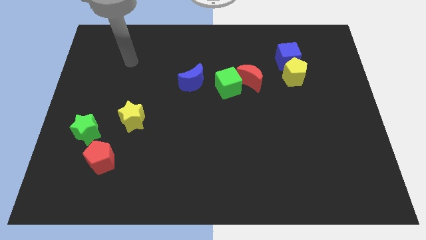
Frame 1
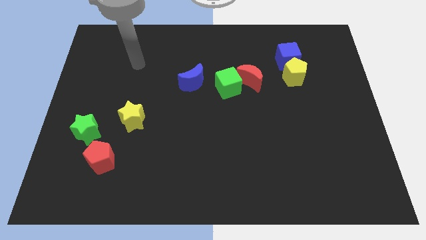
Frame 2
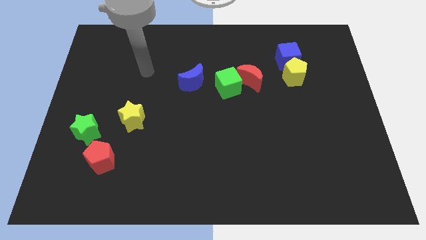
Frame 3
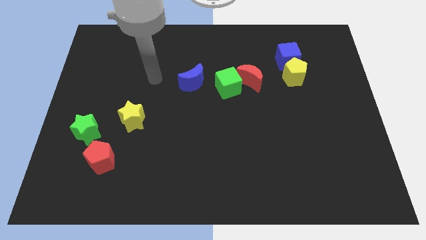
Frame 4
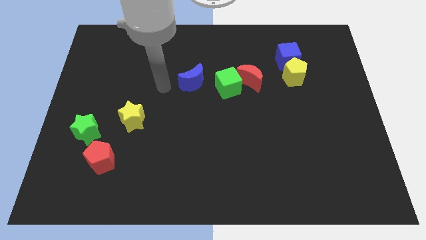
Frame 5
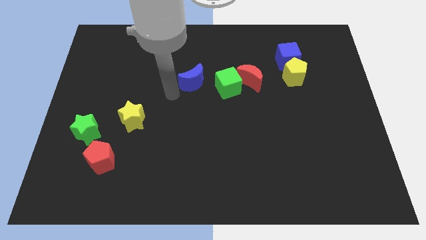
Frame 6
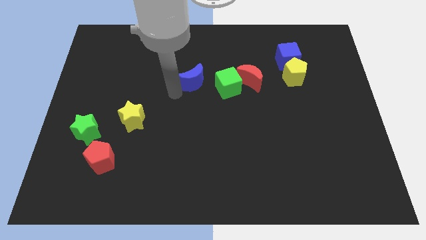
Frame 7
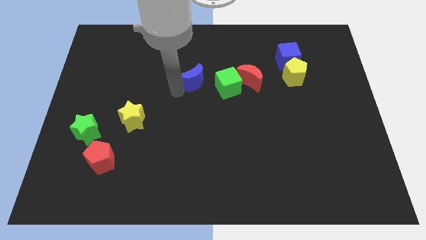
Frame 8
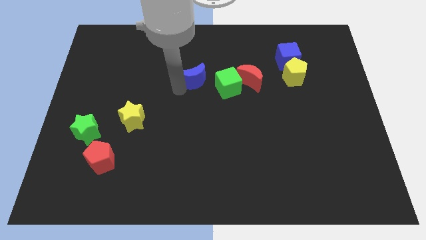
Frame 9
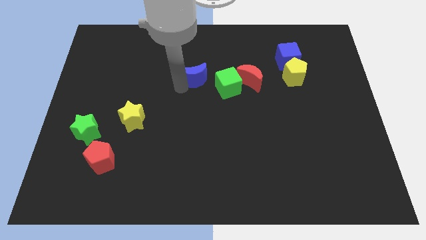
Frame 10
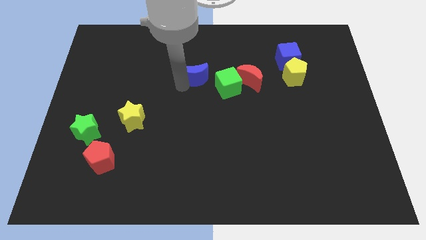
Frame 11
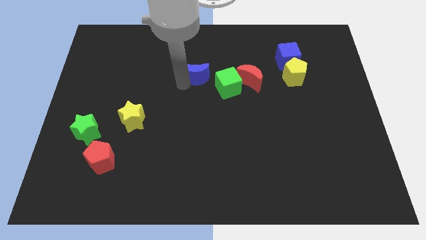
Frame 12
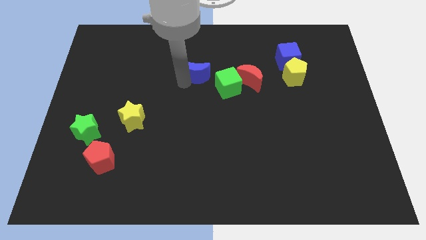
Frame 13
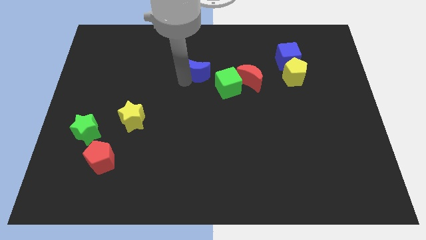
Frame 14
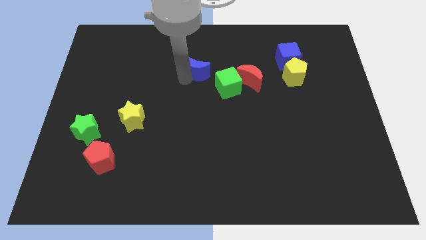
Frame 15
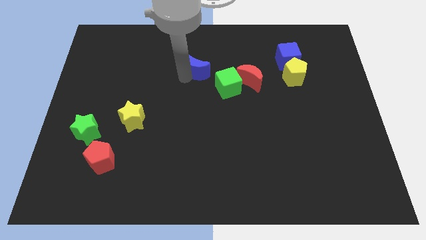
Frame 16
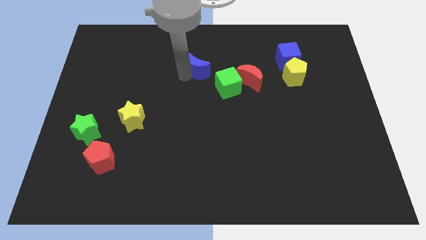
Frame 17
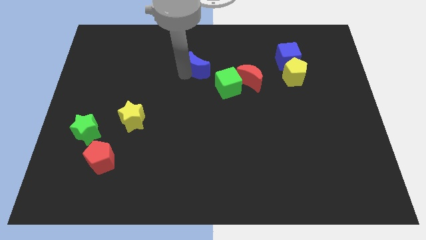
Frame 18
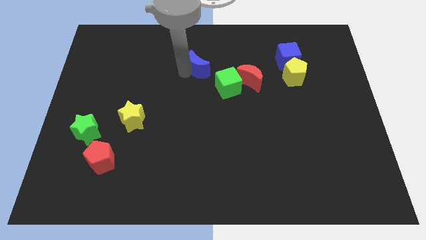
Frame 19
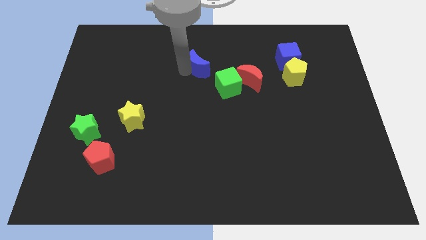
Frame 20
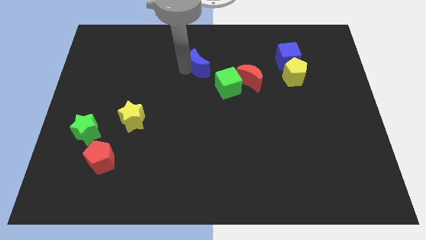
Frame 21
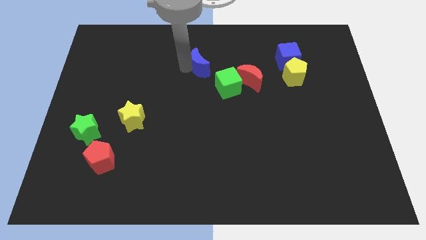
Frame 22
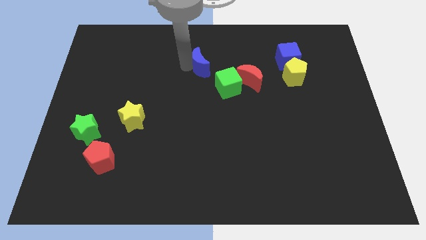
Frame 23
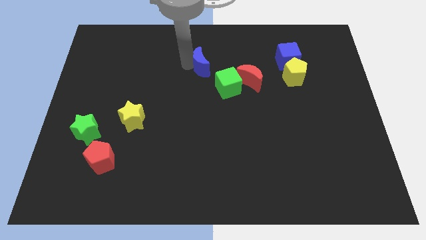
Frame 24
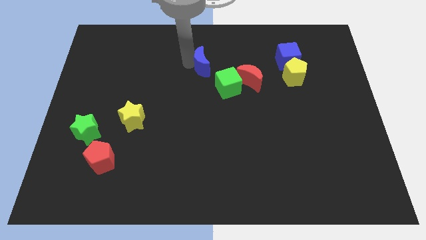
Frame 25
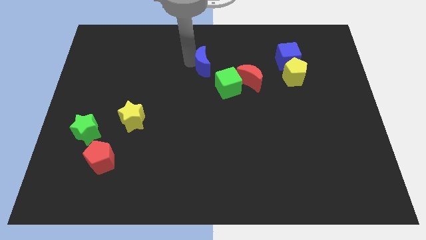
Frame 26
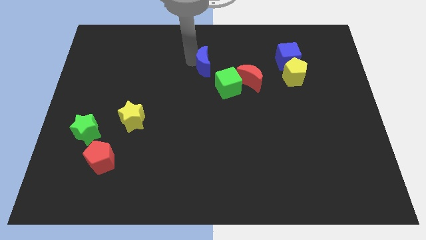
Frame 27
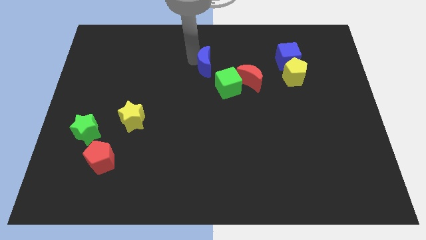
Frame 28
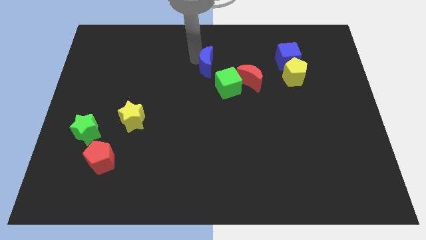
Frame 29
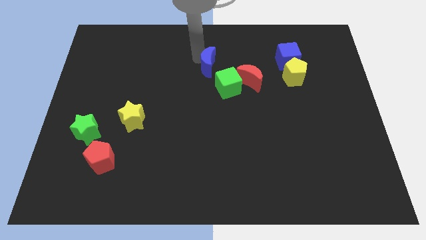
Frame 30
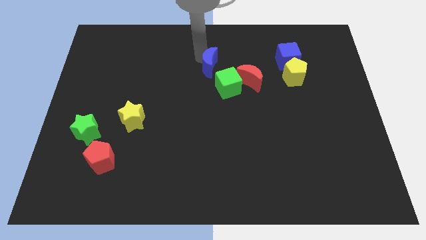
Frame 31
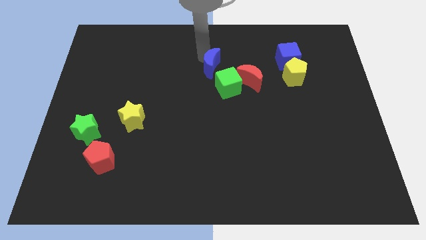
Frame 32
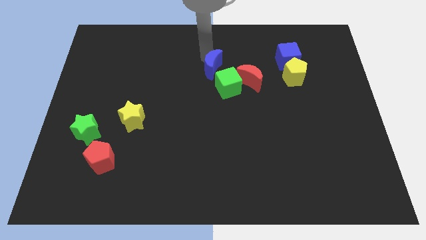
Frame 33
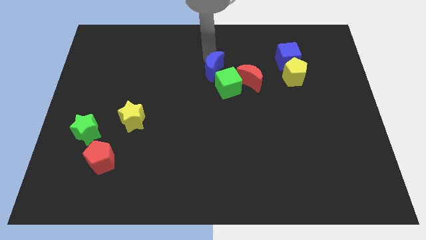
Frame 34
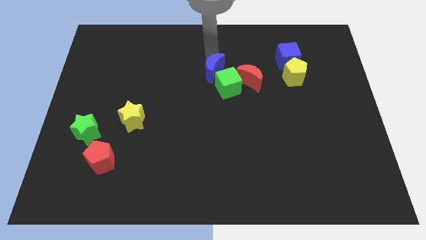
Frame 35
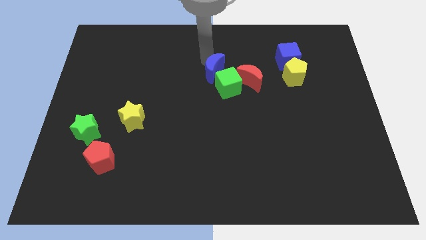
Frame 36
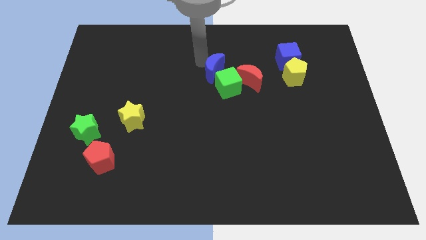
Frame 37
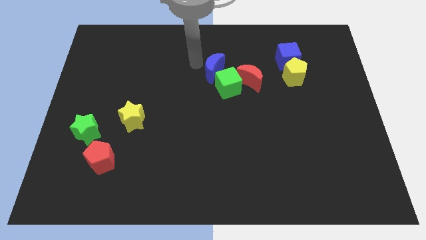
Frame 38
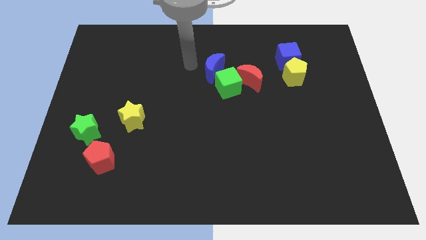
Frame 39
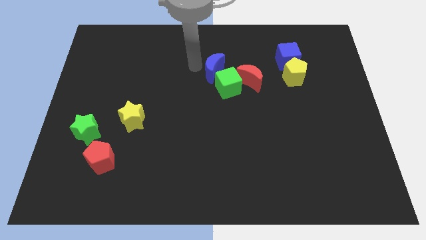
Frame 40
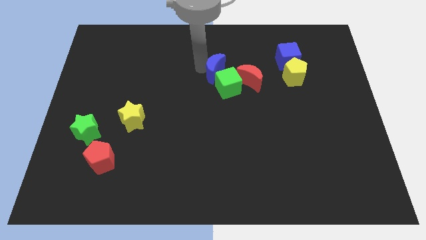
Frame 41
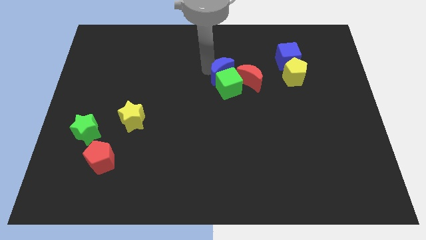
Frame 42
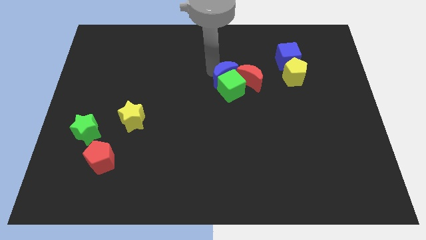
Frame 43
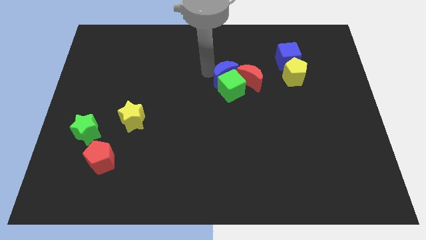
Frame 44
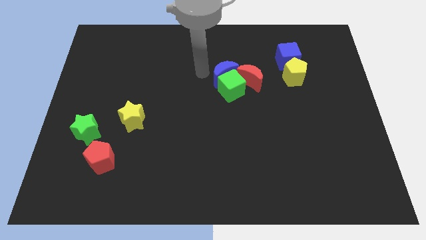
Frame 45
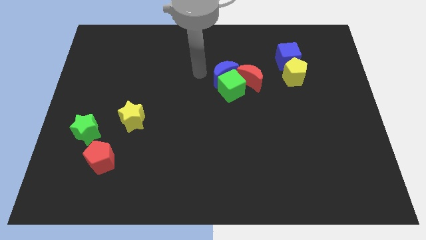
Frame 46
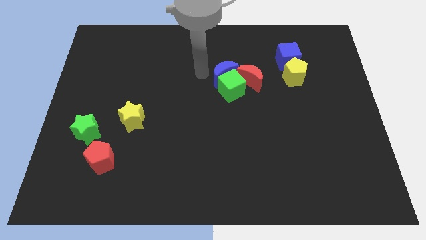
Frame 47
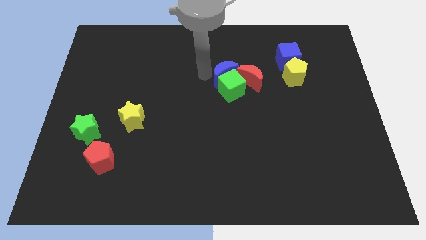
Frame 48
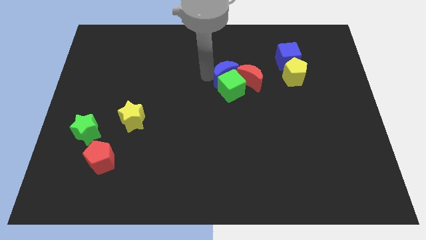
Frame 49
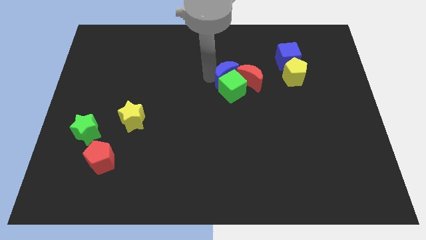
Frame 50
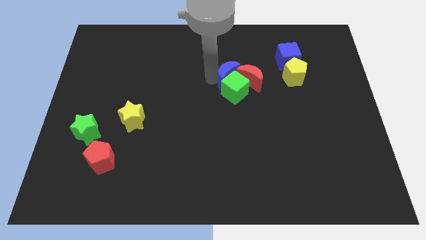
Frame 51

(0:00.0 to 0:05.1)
move the blue moon towards the red moon

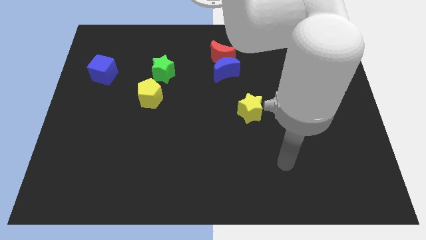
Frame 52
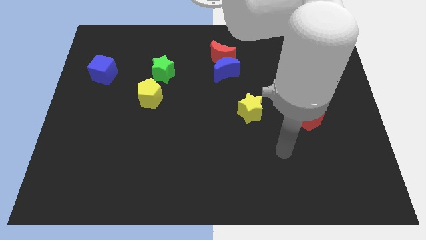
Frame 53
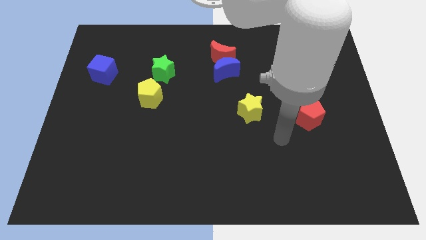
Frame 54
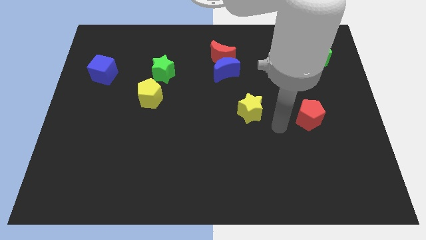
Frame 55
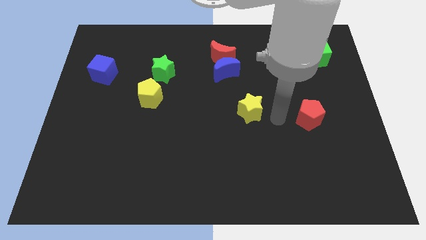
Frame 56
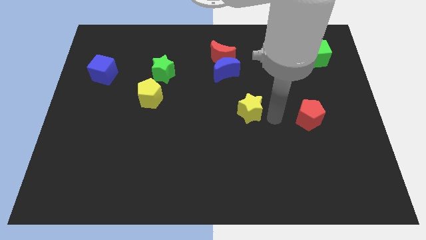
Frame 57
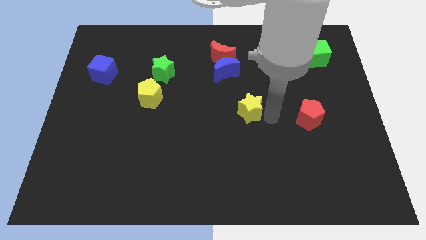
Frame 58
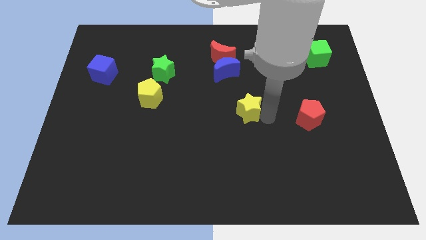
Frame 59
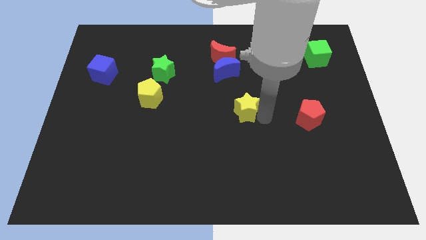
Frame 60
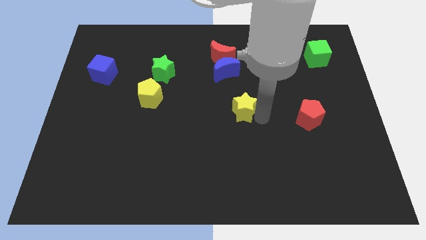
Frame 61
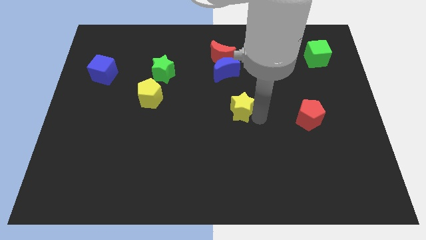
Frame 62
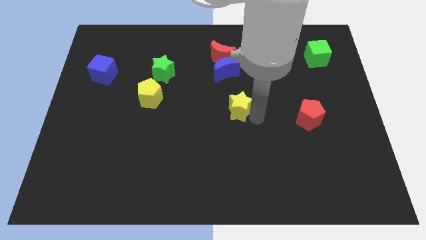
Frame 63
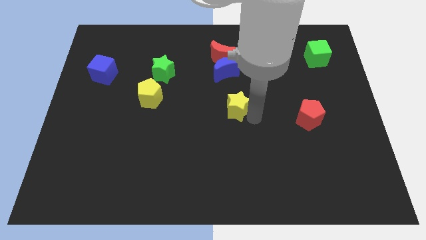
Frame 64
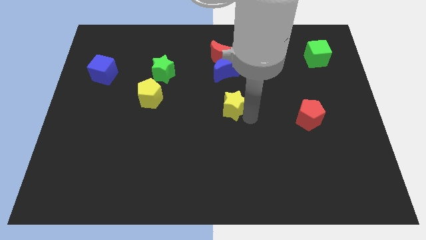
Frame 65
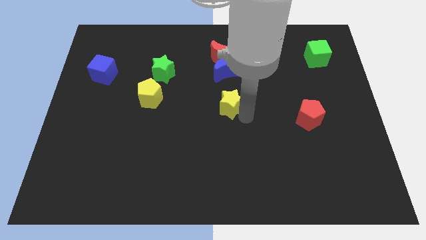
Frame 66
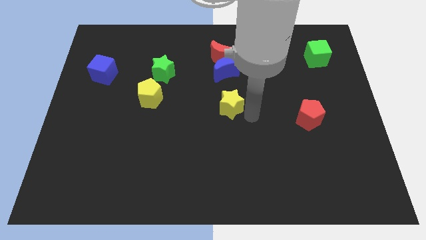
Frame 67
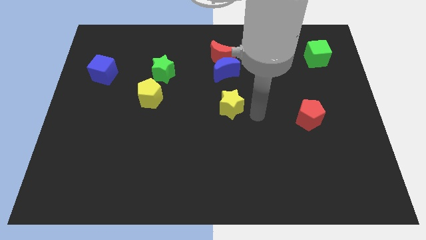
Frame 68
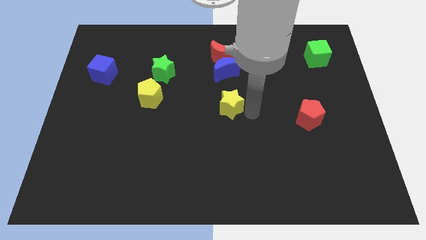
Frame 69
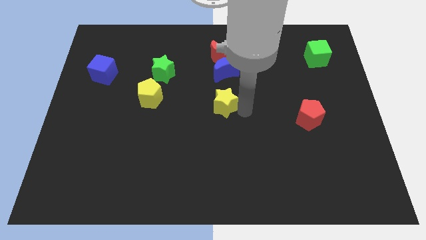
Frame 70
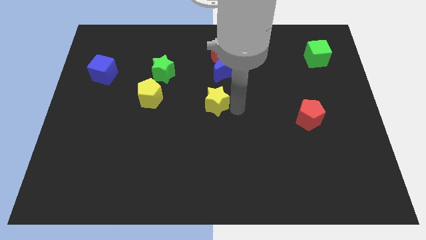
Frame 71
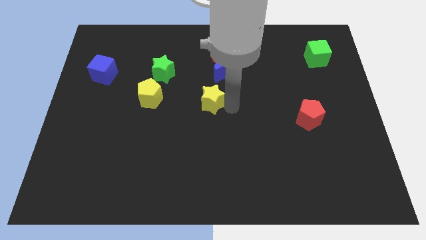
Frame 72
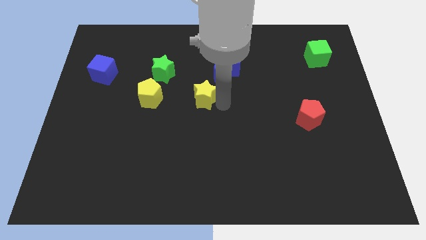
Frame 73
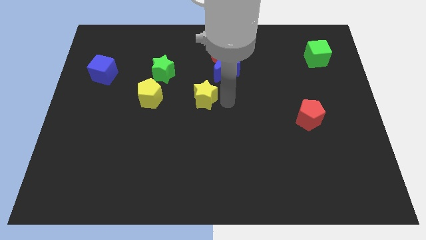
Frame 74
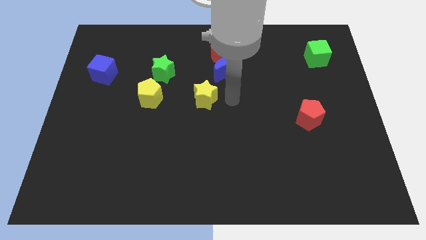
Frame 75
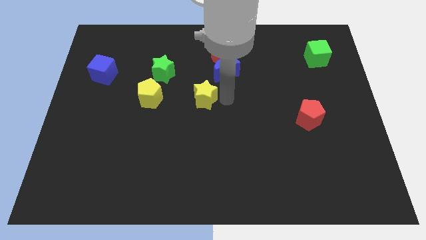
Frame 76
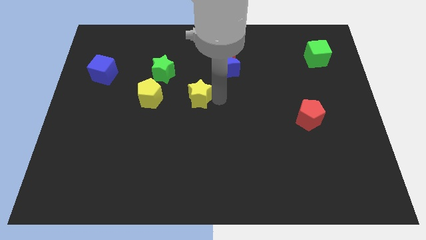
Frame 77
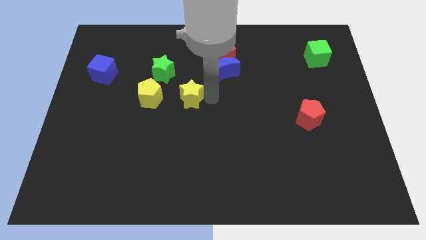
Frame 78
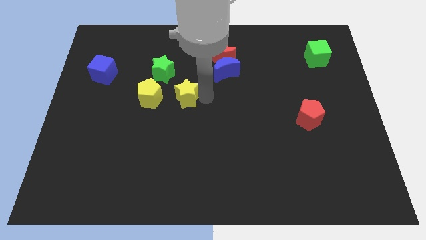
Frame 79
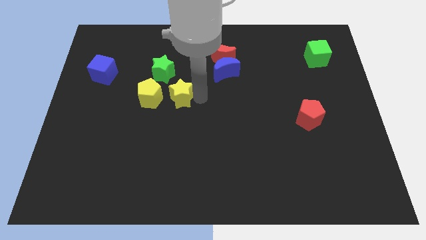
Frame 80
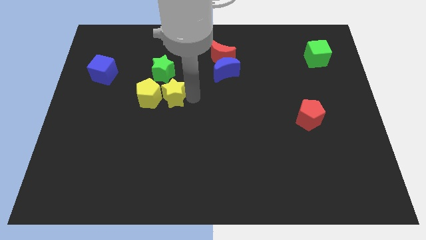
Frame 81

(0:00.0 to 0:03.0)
put the yellow star close to the yellow pentagon
